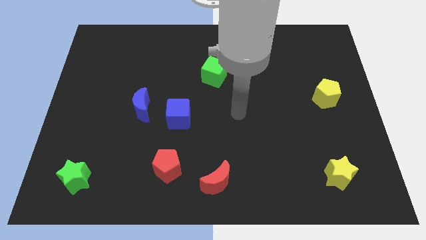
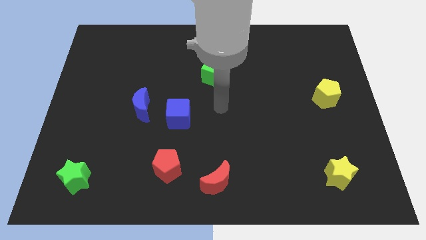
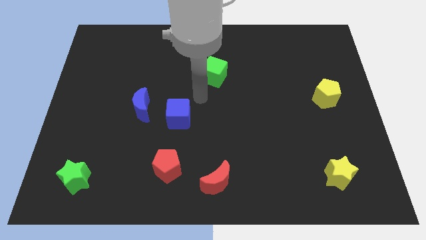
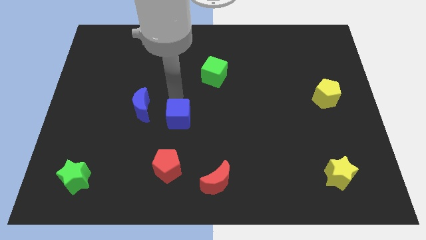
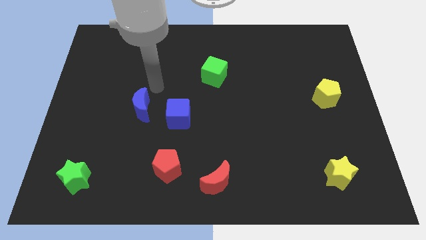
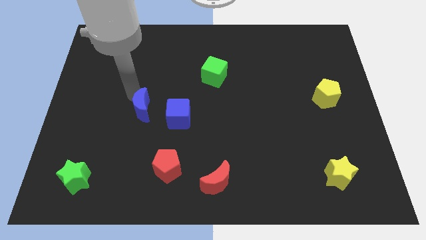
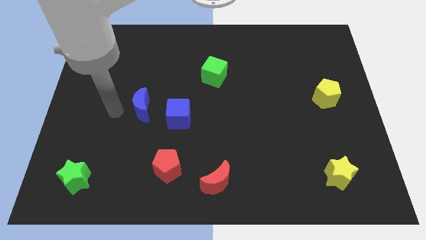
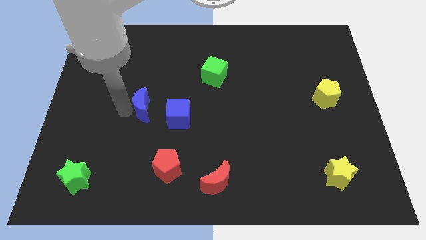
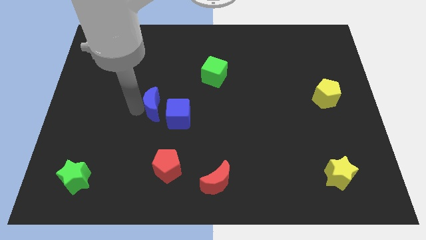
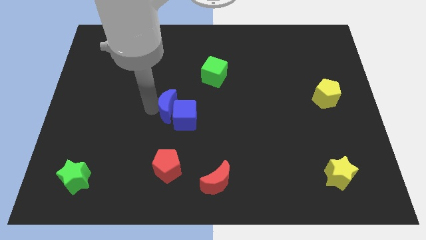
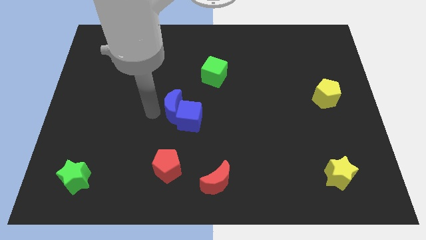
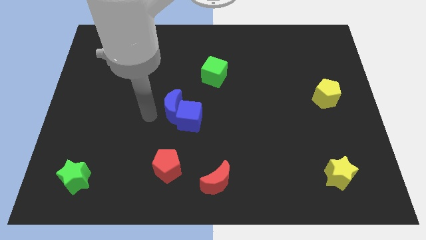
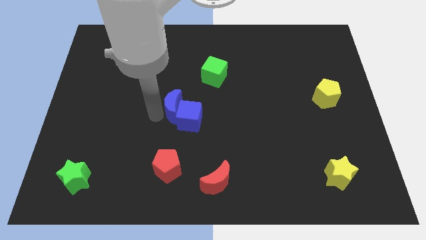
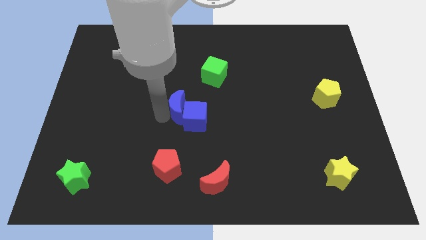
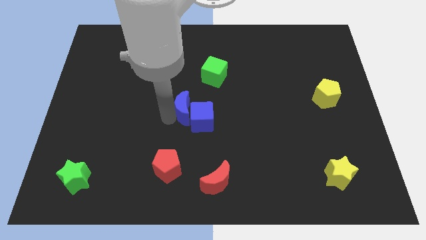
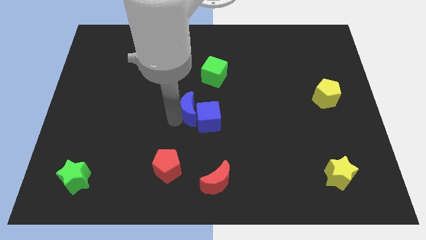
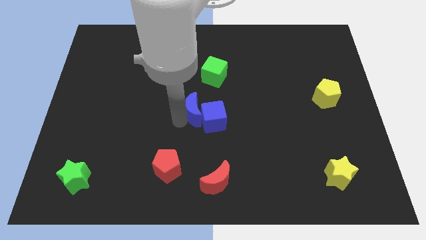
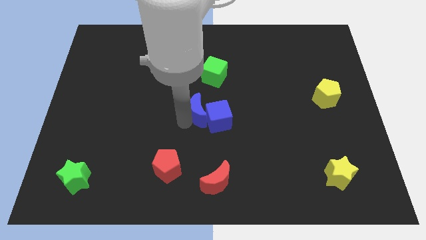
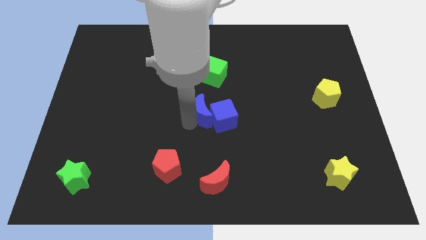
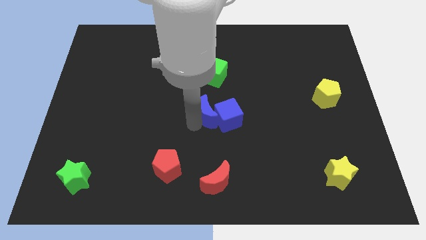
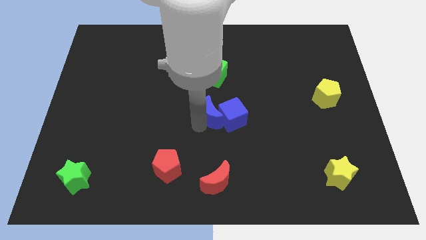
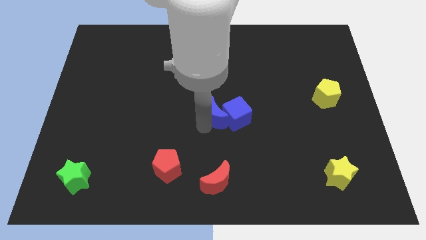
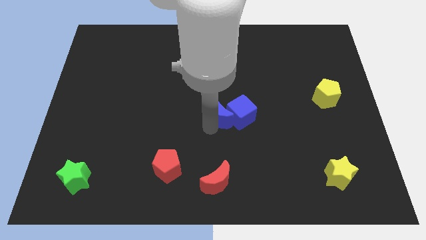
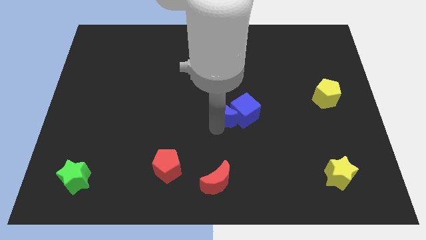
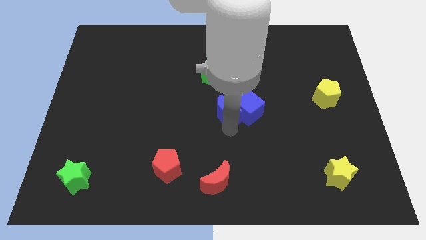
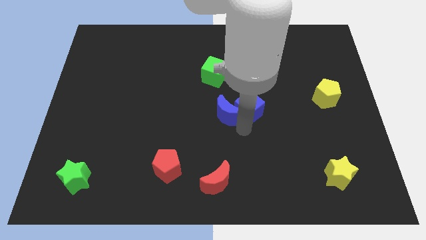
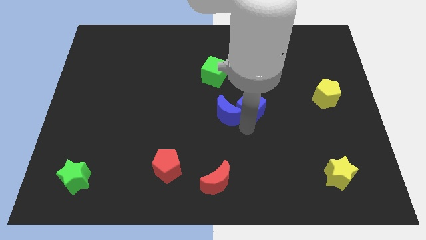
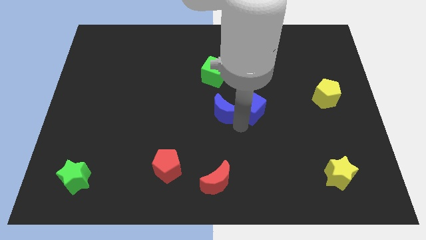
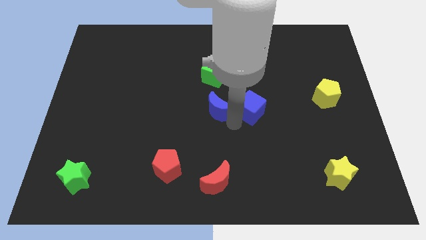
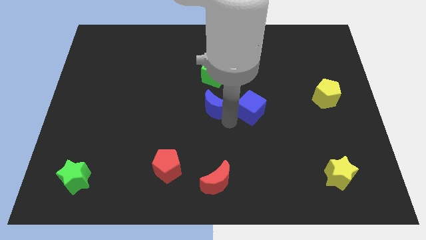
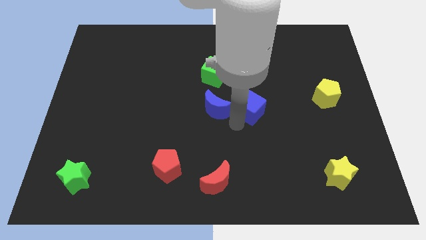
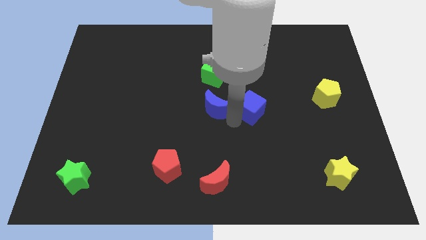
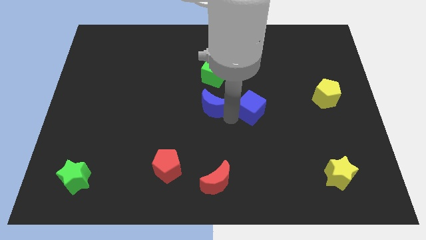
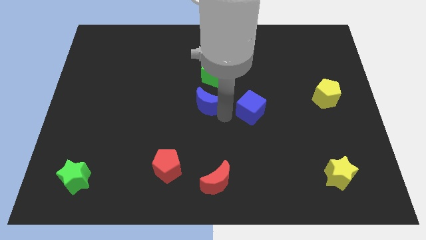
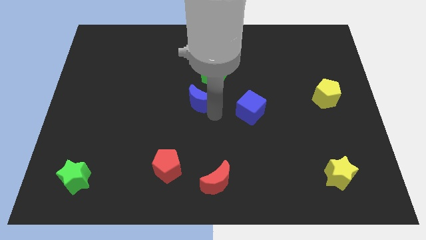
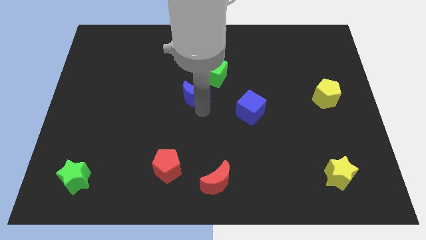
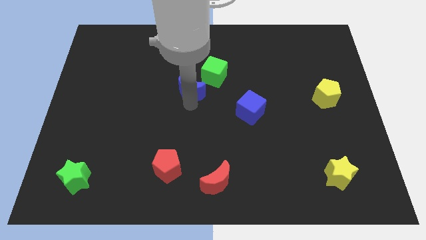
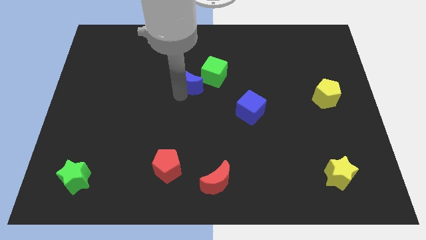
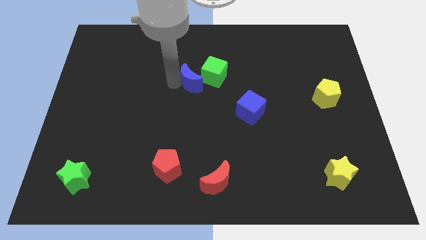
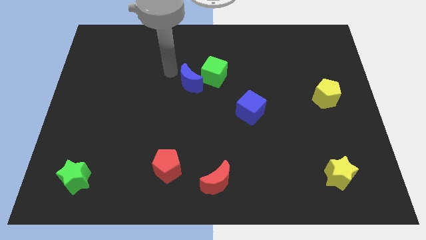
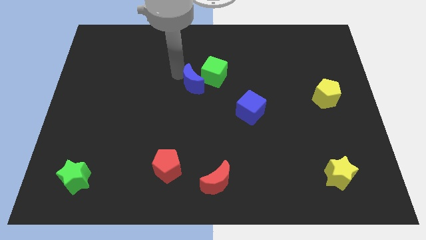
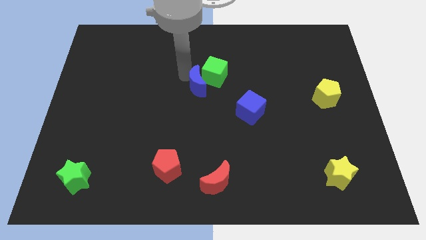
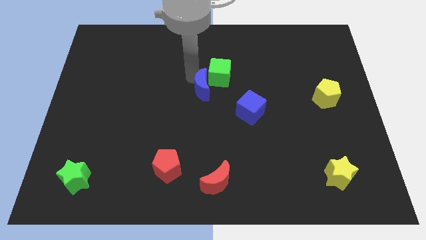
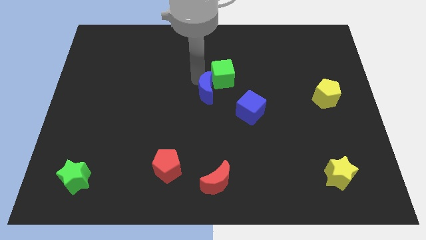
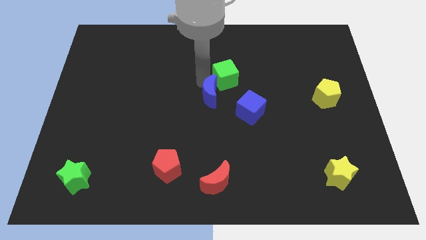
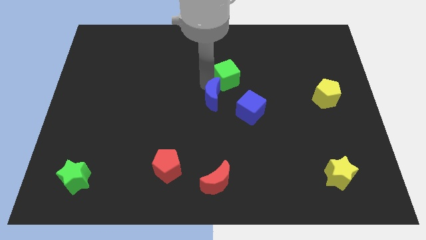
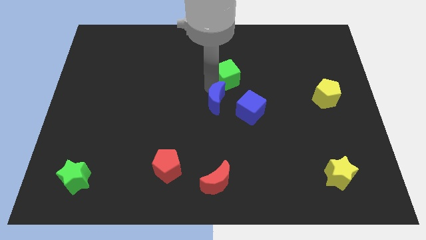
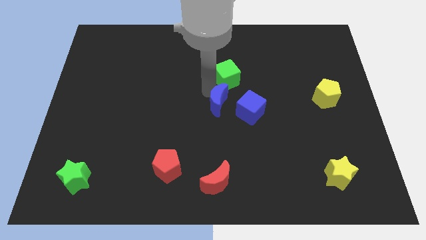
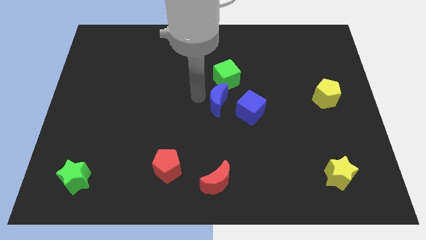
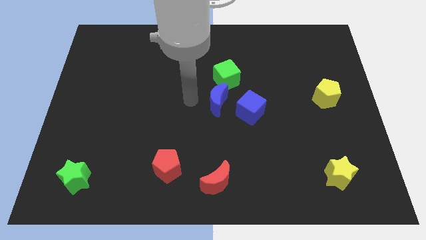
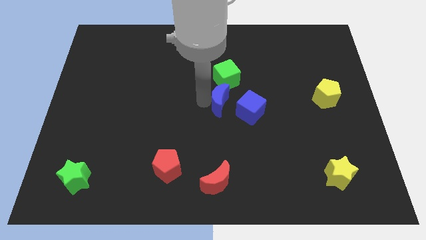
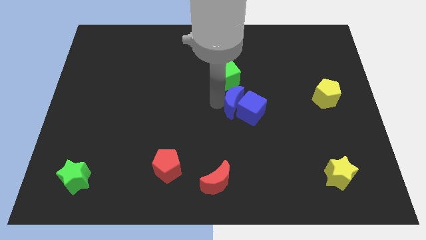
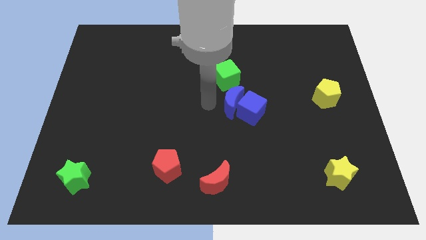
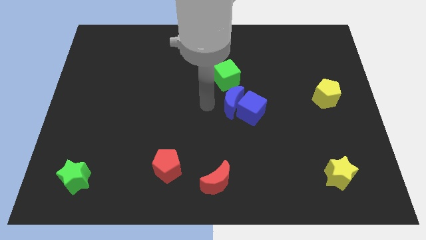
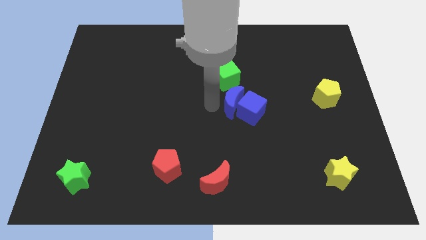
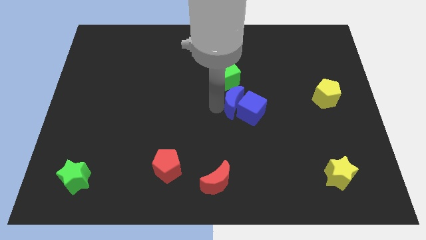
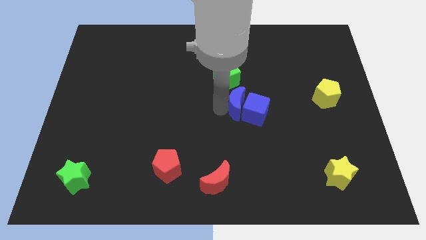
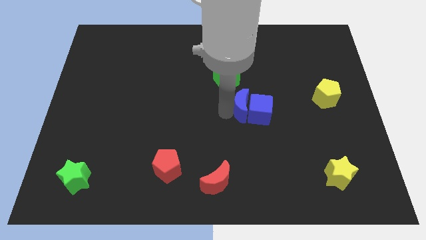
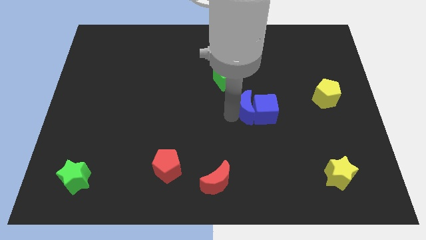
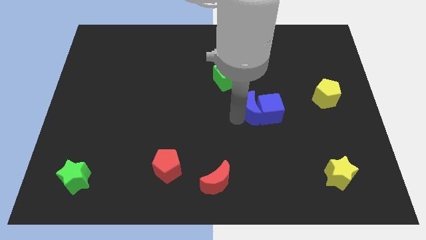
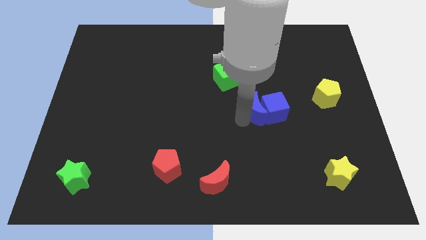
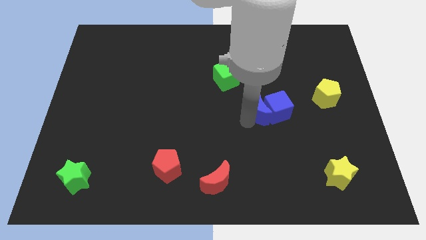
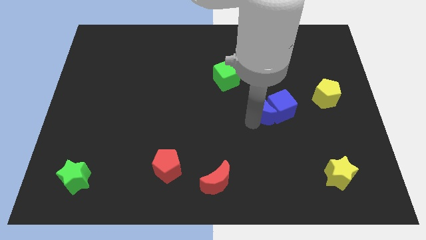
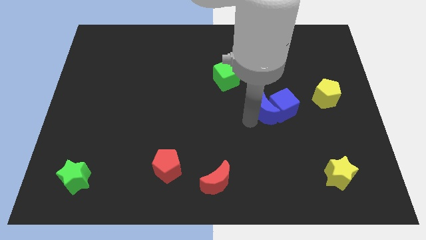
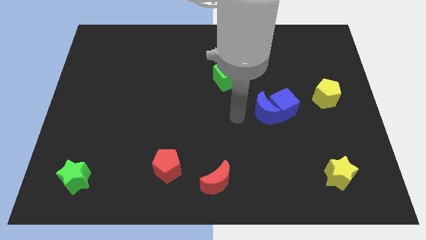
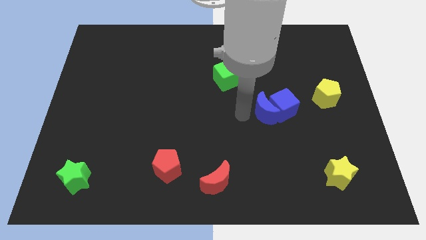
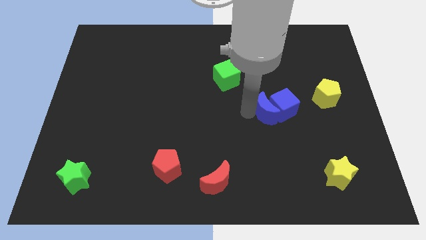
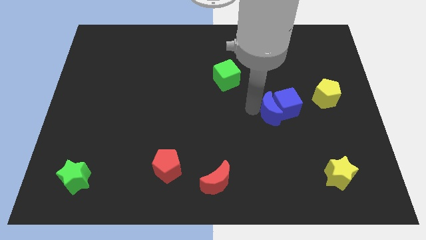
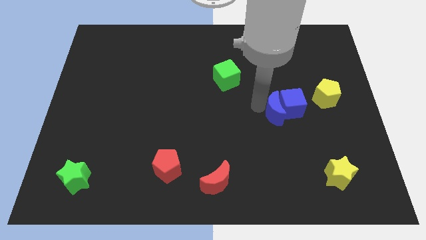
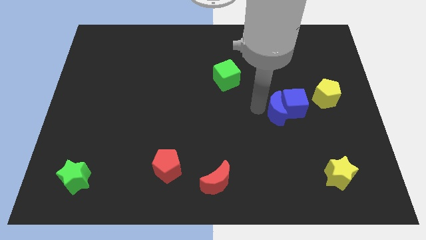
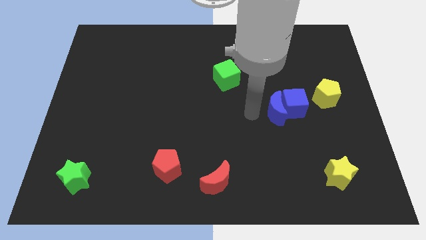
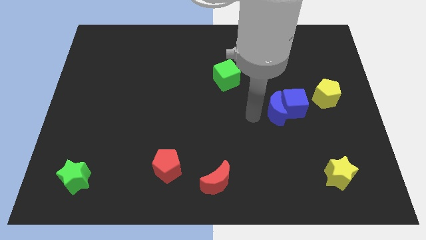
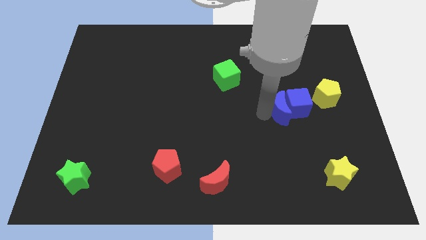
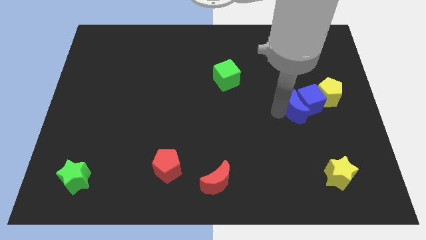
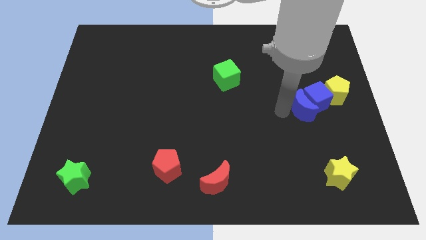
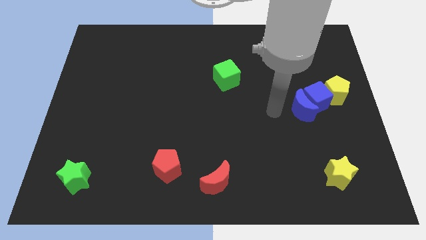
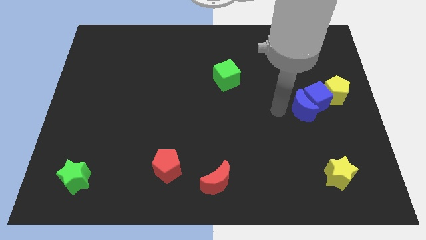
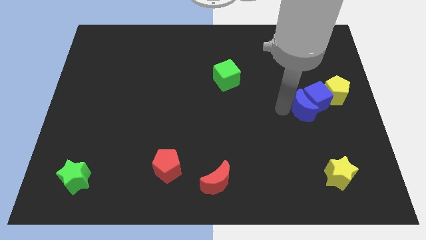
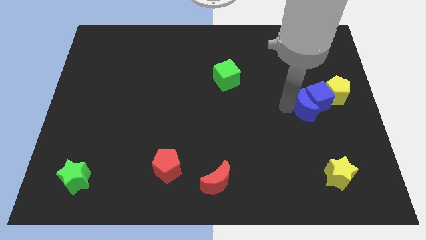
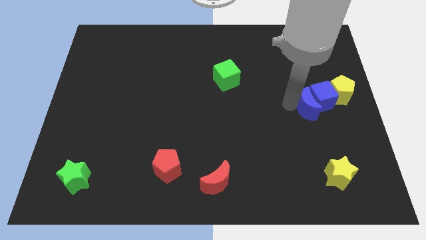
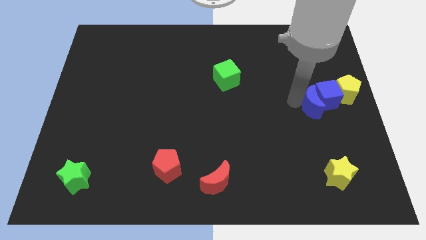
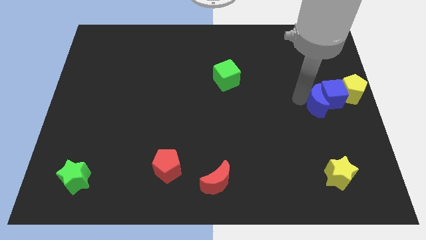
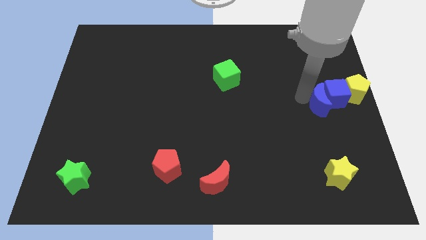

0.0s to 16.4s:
slide the blue moon to the right side of the board
